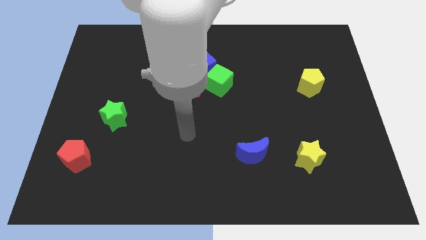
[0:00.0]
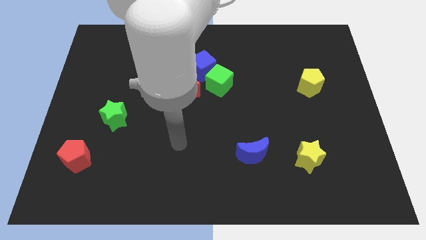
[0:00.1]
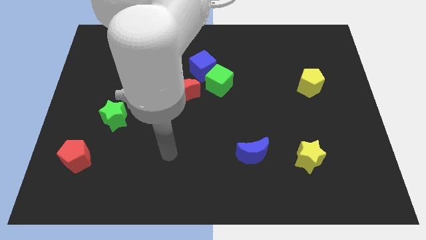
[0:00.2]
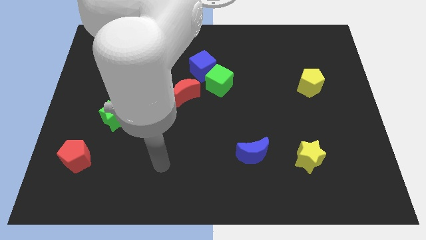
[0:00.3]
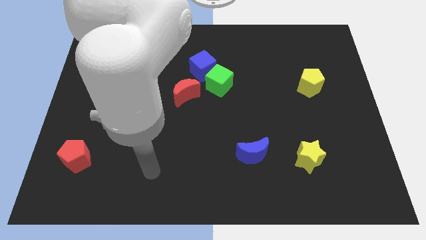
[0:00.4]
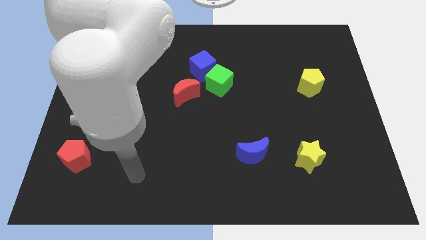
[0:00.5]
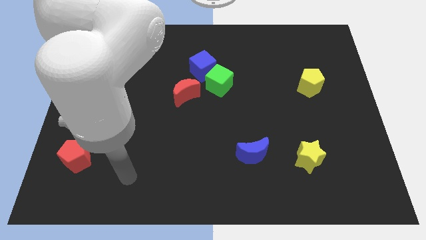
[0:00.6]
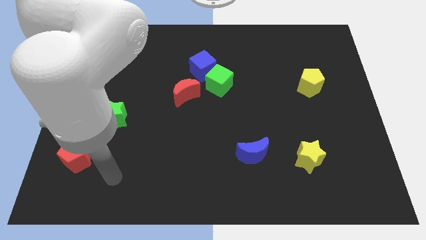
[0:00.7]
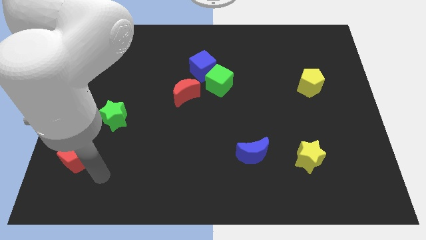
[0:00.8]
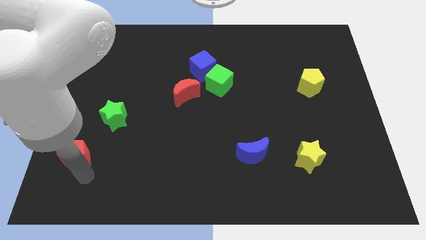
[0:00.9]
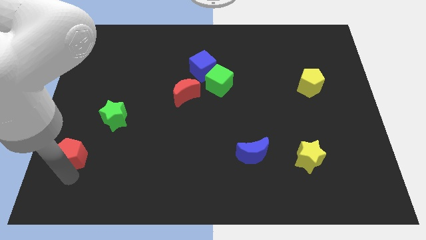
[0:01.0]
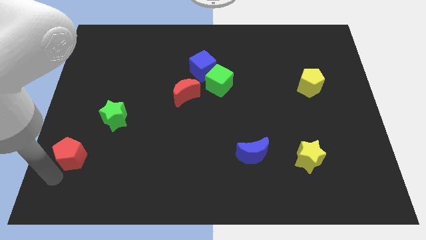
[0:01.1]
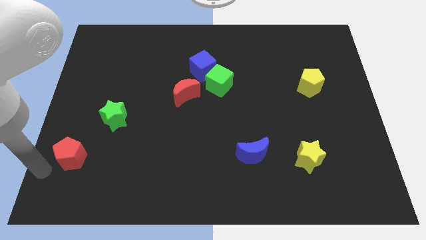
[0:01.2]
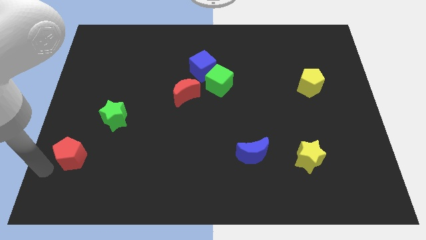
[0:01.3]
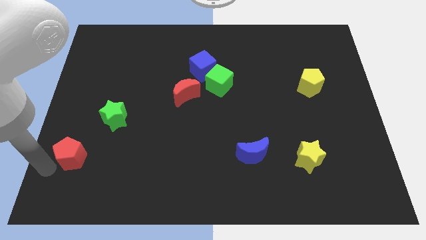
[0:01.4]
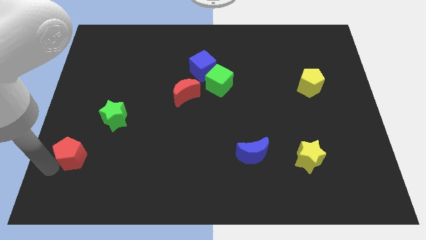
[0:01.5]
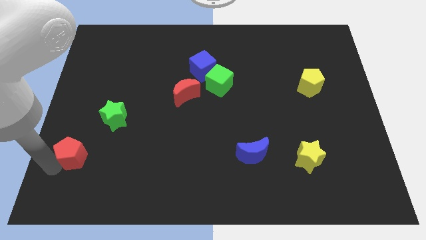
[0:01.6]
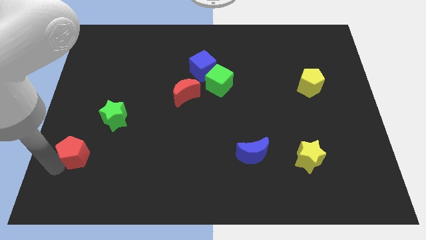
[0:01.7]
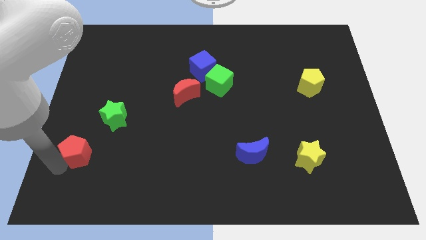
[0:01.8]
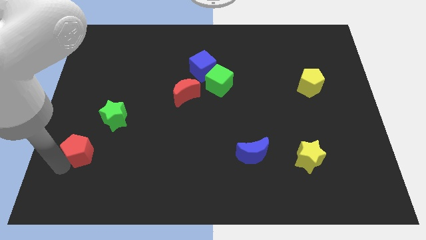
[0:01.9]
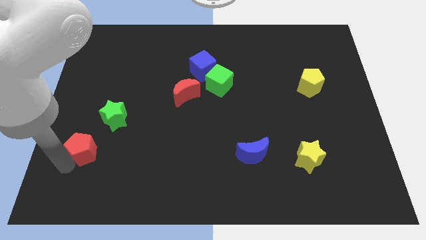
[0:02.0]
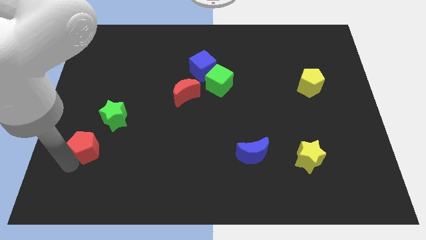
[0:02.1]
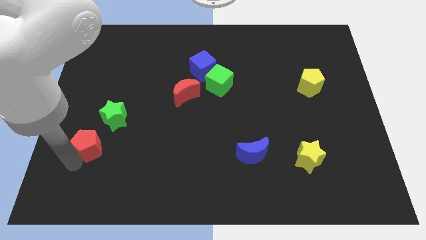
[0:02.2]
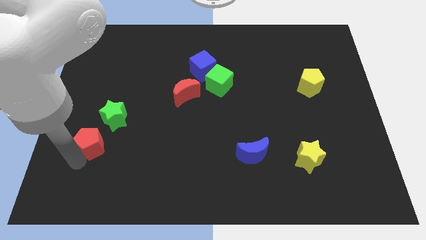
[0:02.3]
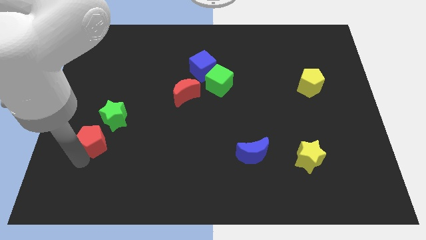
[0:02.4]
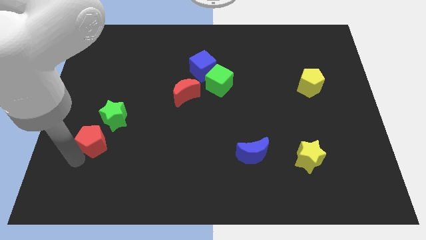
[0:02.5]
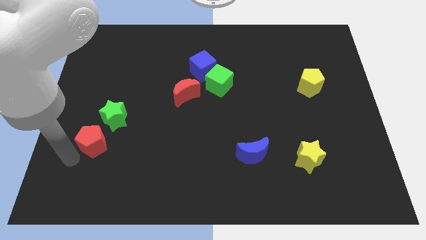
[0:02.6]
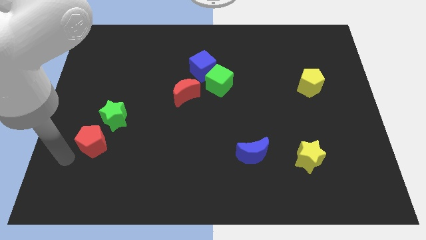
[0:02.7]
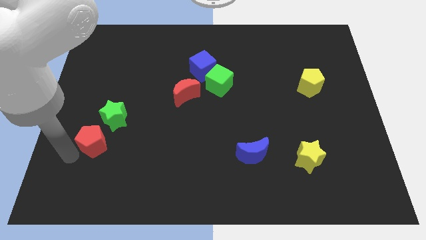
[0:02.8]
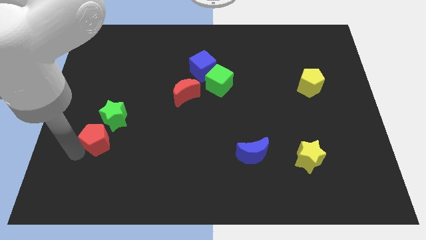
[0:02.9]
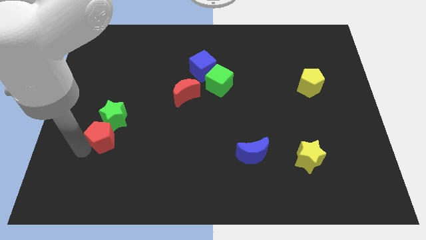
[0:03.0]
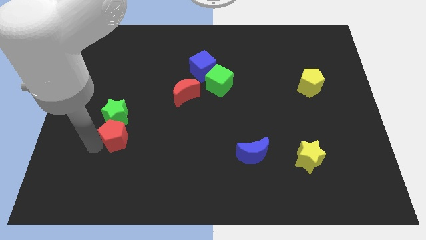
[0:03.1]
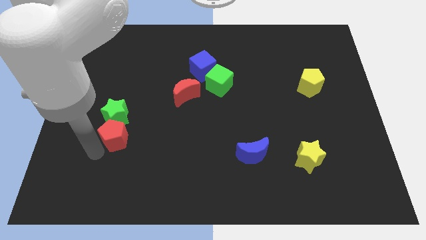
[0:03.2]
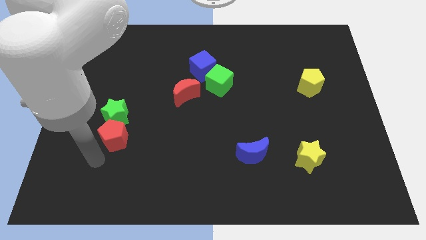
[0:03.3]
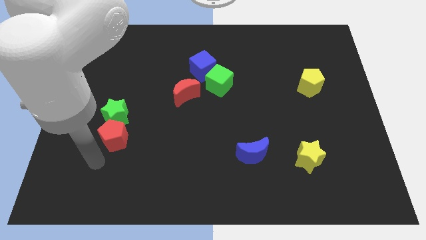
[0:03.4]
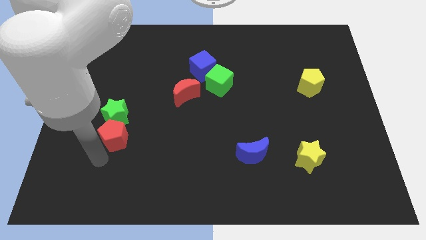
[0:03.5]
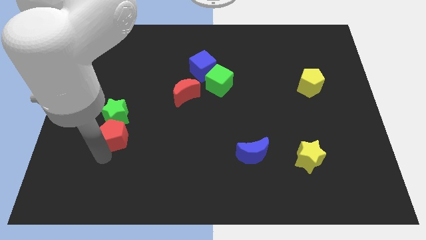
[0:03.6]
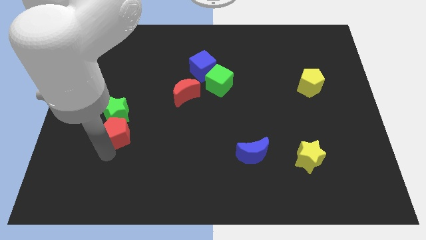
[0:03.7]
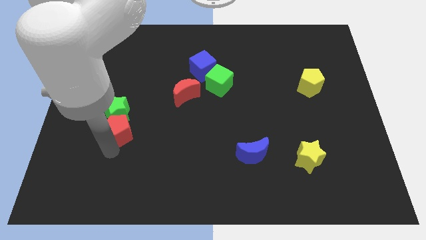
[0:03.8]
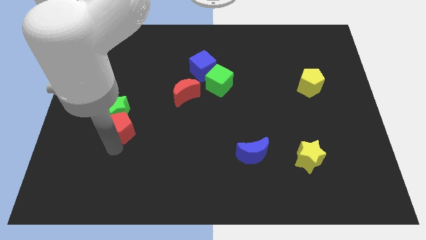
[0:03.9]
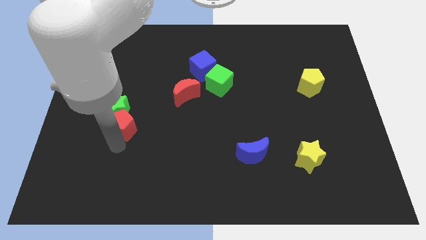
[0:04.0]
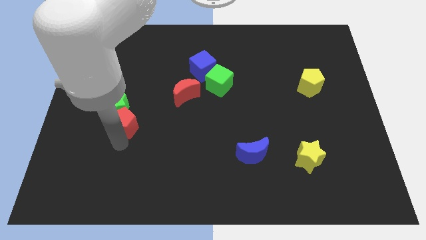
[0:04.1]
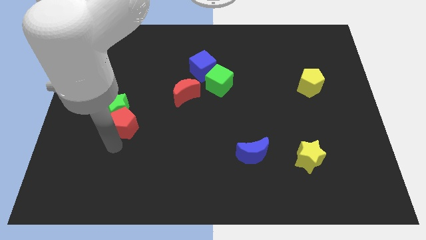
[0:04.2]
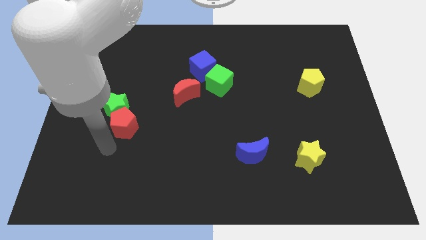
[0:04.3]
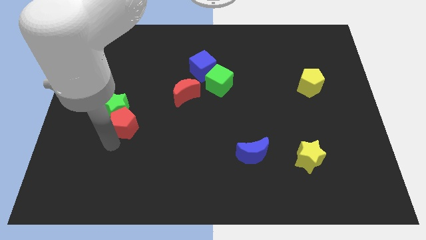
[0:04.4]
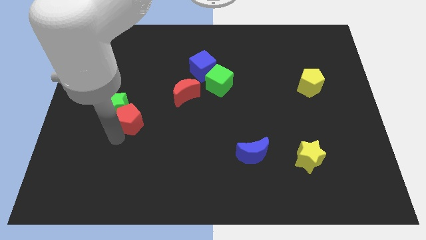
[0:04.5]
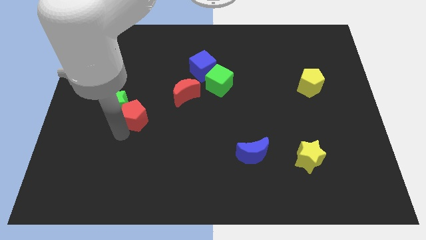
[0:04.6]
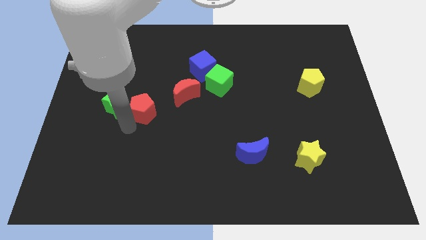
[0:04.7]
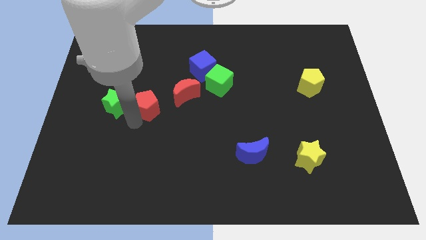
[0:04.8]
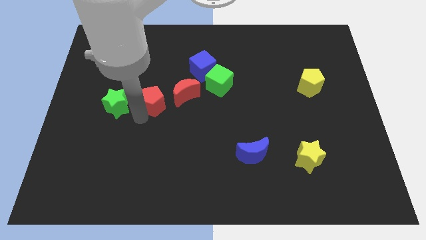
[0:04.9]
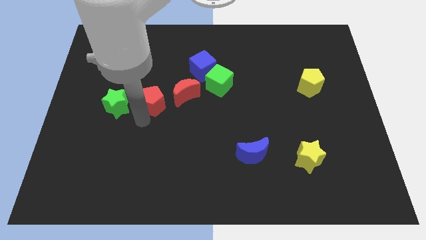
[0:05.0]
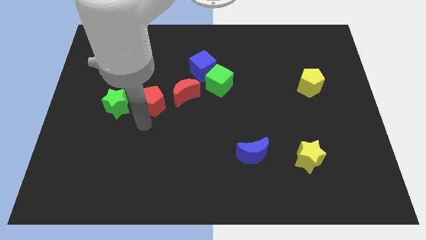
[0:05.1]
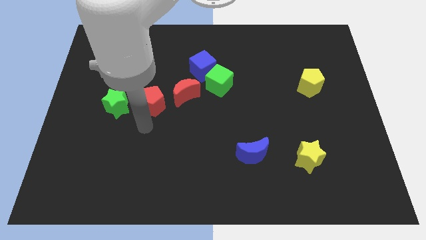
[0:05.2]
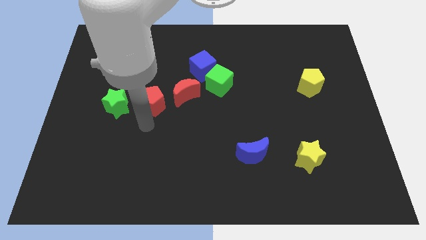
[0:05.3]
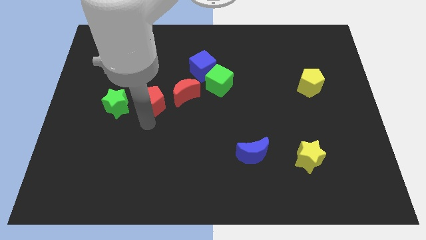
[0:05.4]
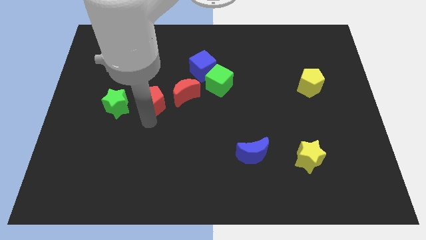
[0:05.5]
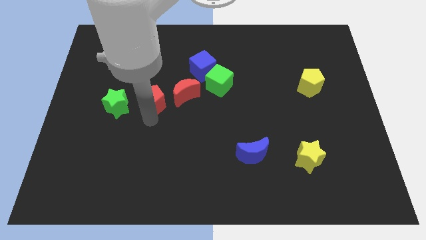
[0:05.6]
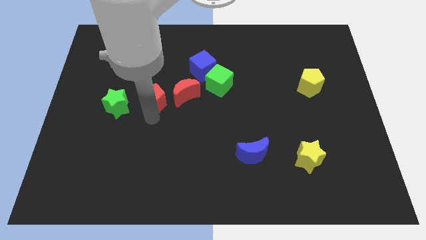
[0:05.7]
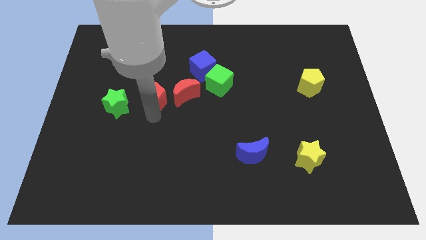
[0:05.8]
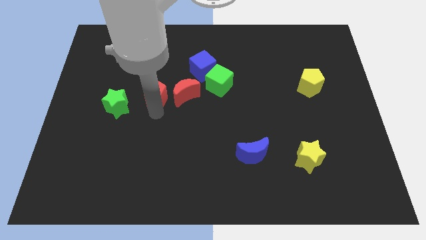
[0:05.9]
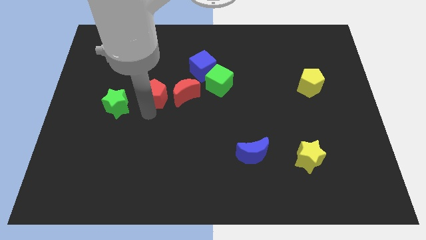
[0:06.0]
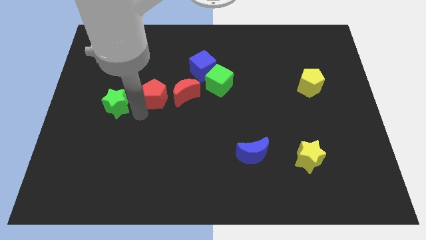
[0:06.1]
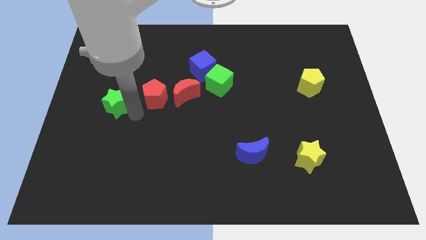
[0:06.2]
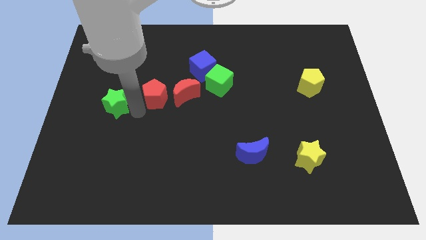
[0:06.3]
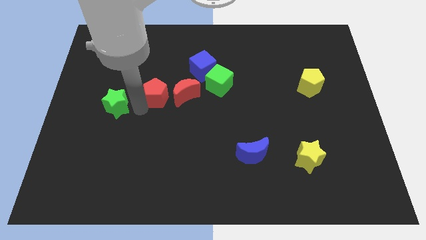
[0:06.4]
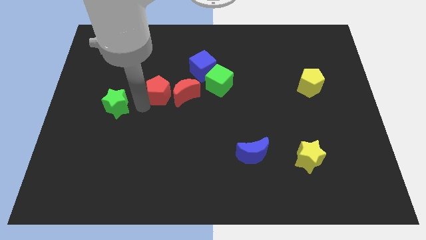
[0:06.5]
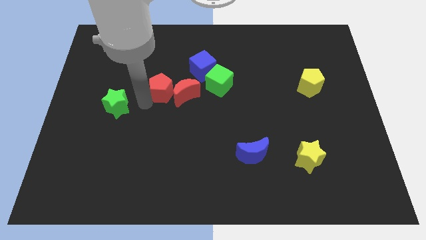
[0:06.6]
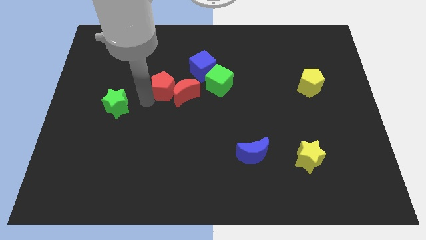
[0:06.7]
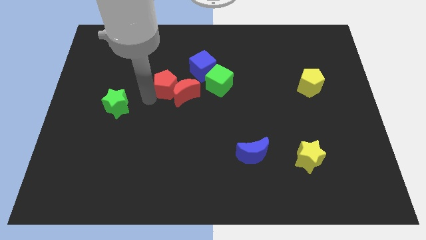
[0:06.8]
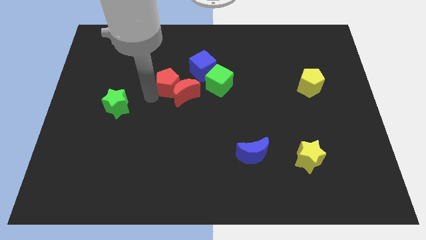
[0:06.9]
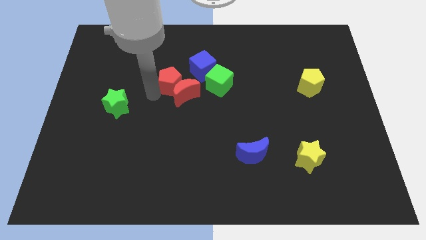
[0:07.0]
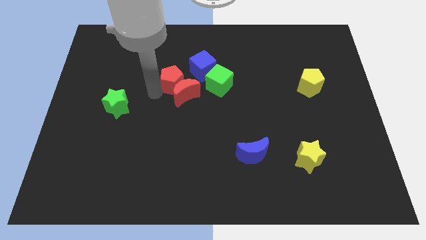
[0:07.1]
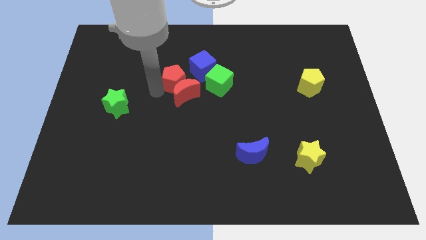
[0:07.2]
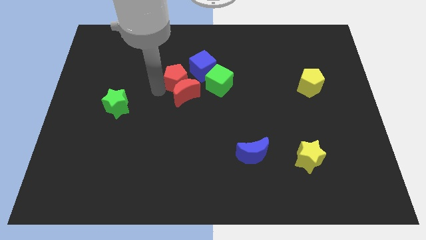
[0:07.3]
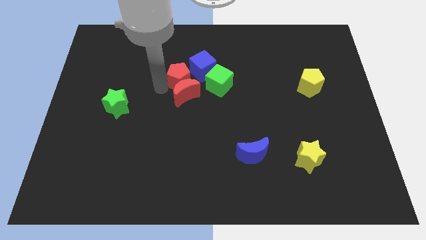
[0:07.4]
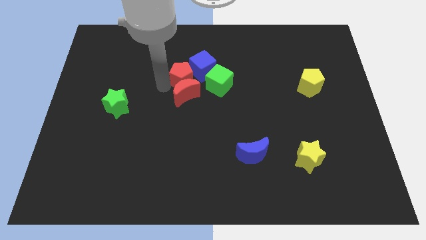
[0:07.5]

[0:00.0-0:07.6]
slide the red pentagon close to the blue cube
